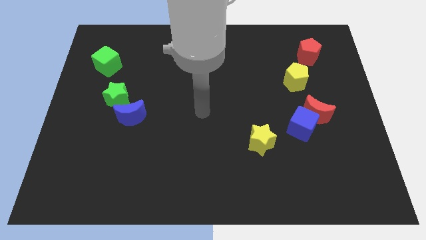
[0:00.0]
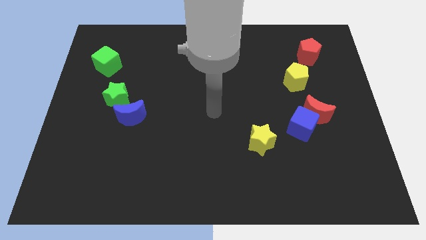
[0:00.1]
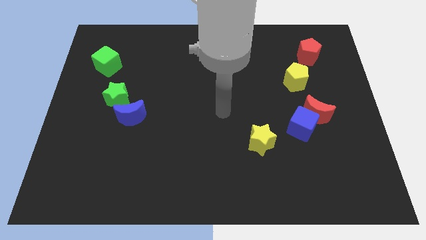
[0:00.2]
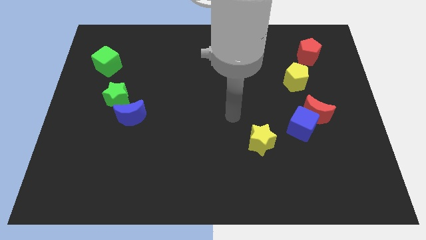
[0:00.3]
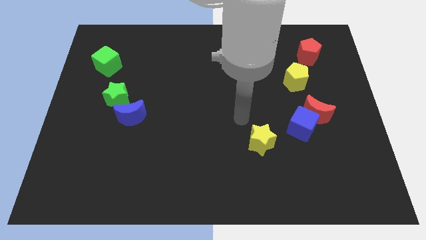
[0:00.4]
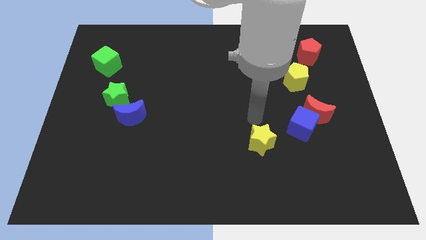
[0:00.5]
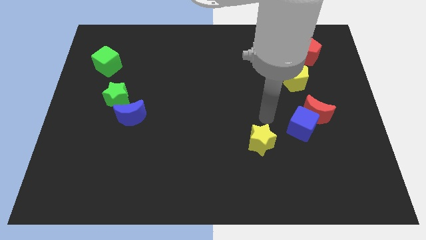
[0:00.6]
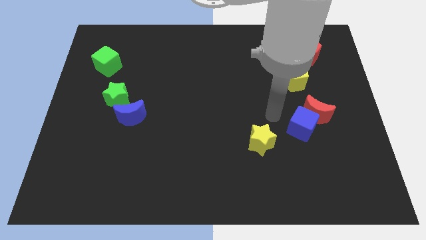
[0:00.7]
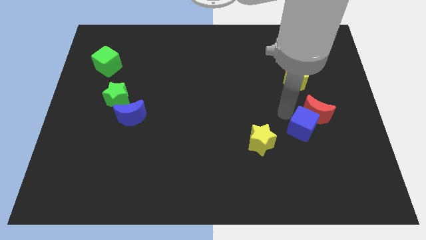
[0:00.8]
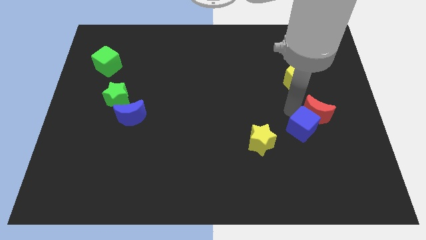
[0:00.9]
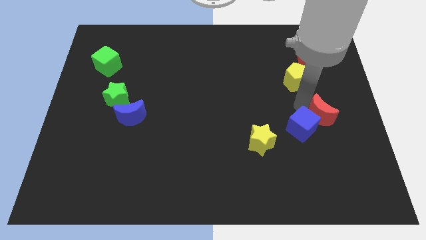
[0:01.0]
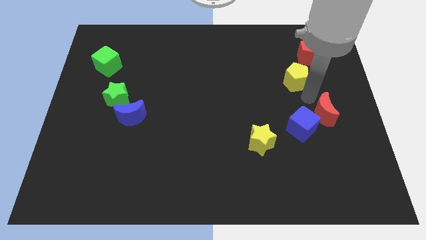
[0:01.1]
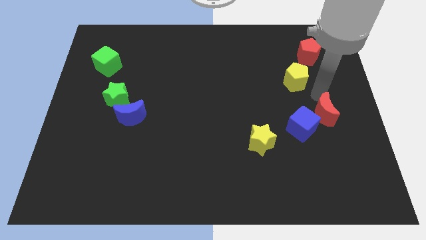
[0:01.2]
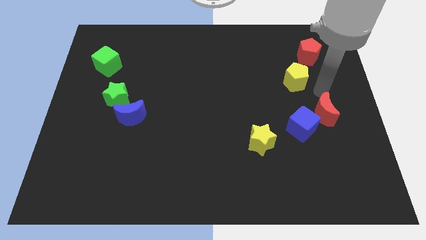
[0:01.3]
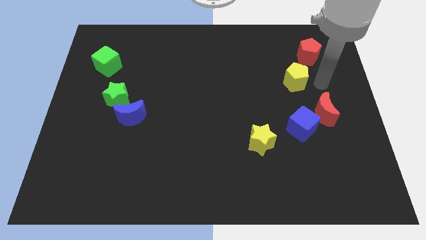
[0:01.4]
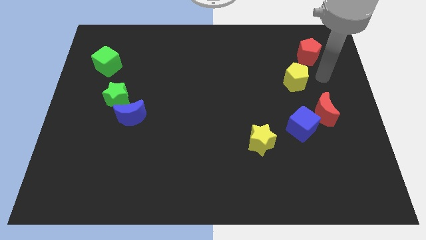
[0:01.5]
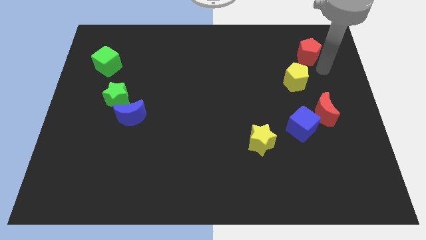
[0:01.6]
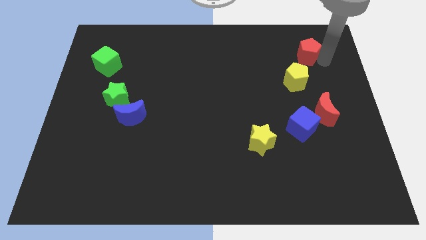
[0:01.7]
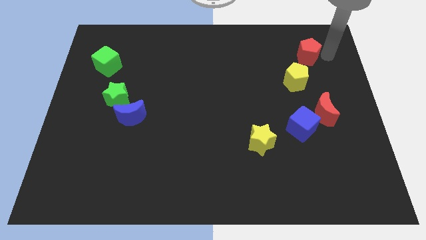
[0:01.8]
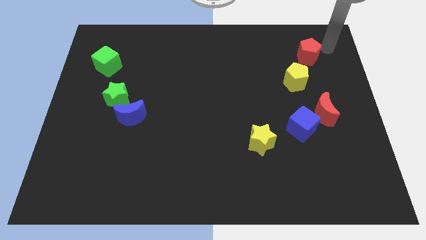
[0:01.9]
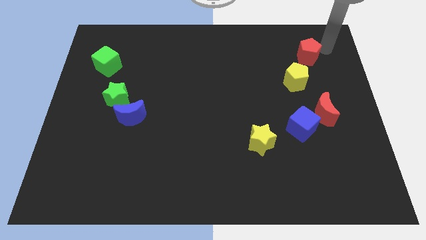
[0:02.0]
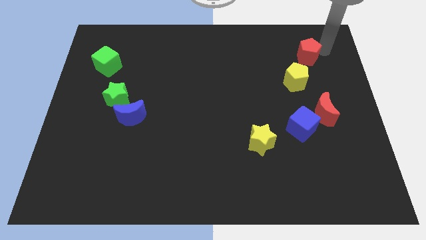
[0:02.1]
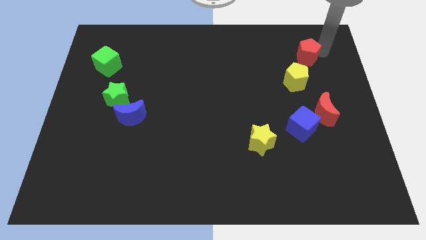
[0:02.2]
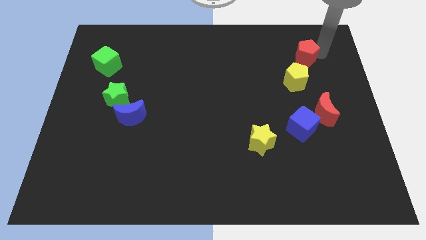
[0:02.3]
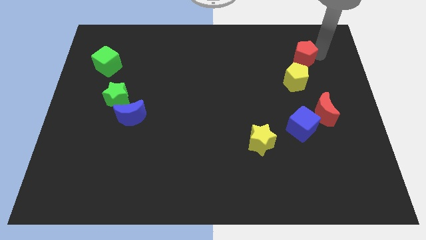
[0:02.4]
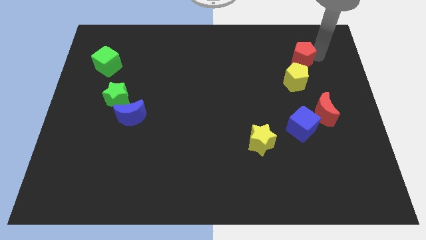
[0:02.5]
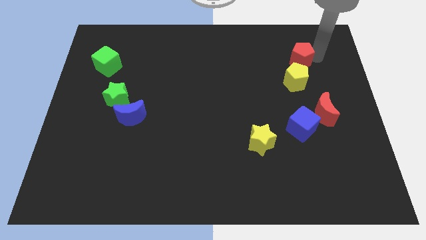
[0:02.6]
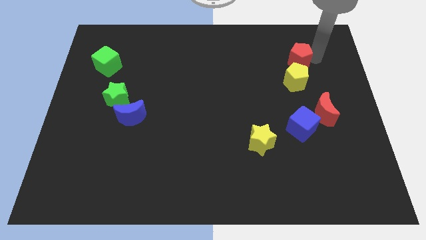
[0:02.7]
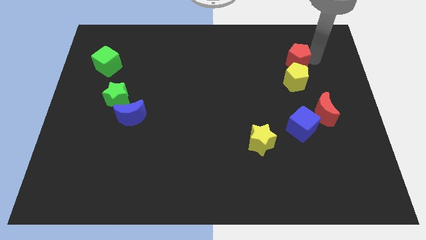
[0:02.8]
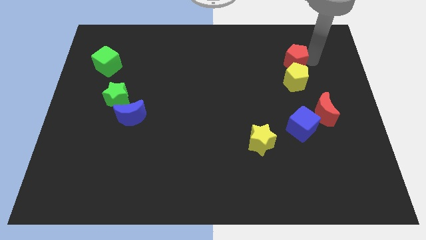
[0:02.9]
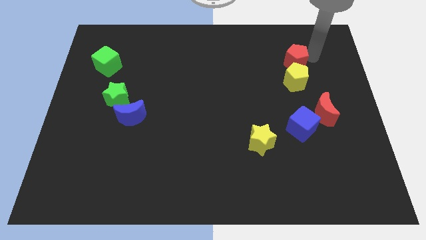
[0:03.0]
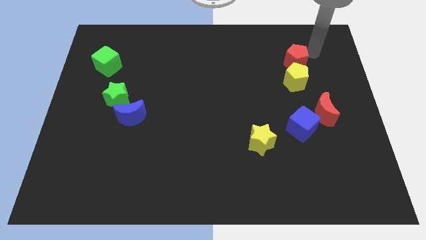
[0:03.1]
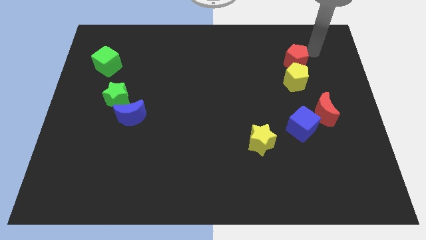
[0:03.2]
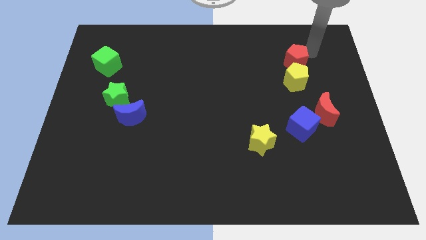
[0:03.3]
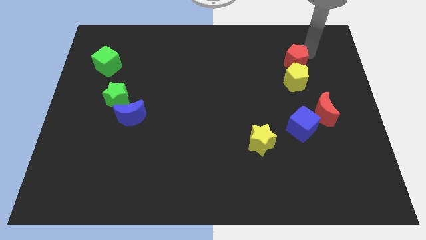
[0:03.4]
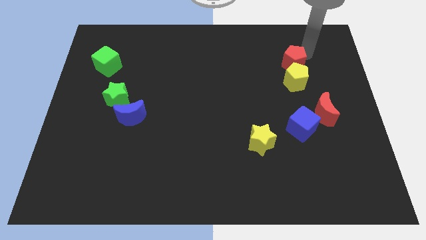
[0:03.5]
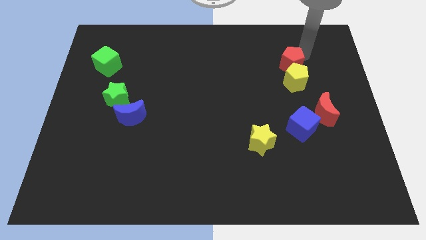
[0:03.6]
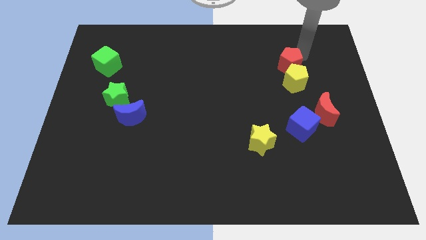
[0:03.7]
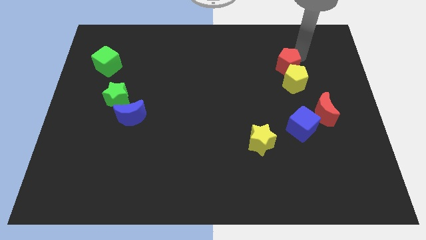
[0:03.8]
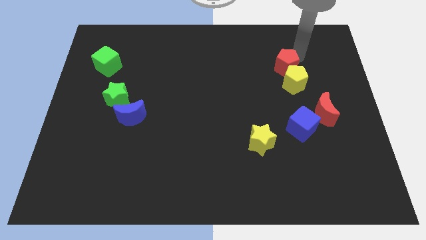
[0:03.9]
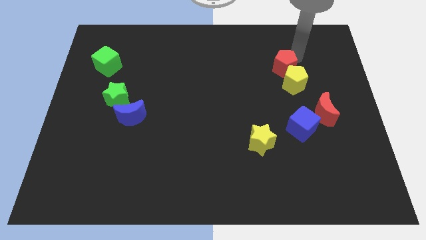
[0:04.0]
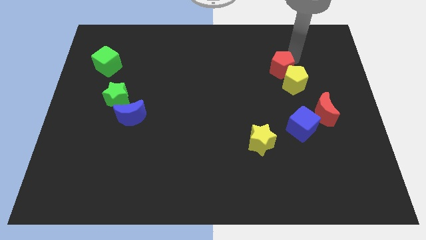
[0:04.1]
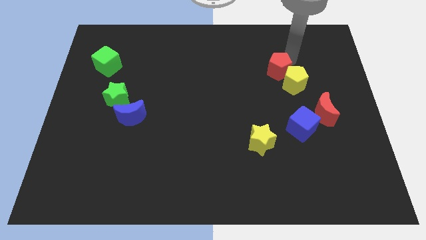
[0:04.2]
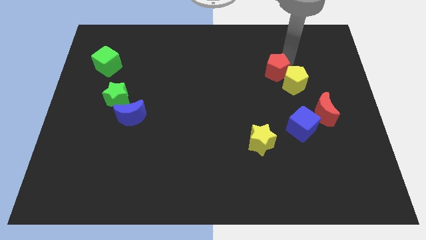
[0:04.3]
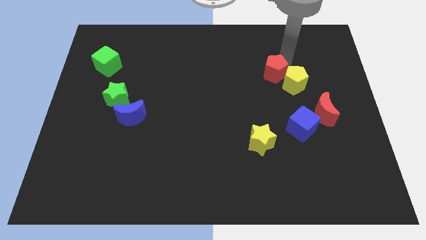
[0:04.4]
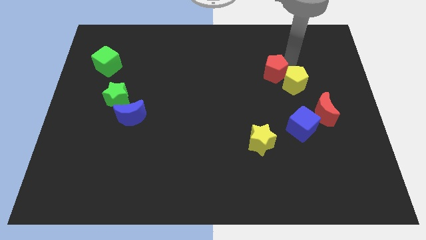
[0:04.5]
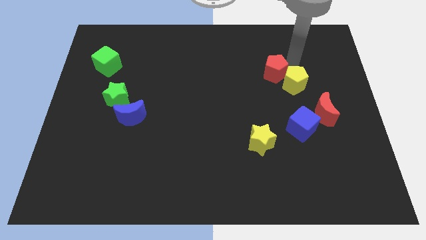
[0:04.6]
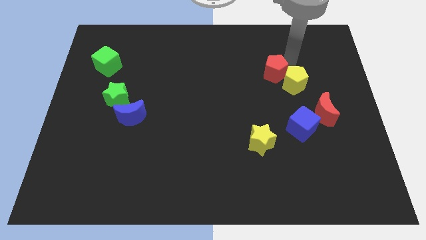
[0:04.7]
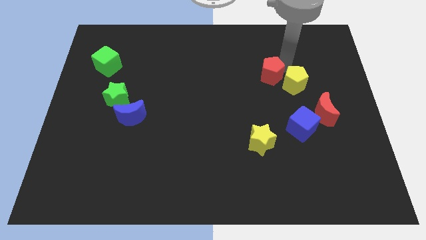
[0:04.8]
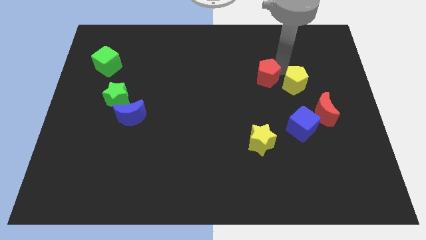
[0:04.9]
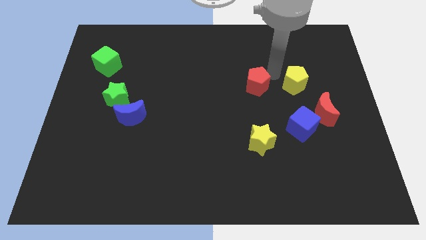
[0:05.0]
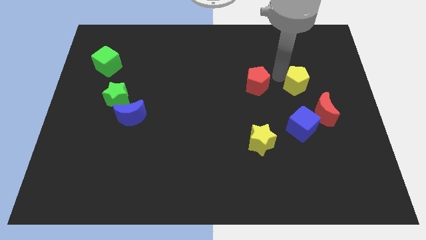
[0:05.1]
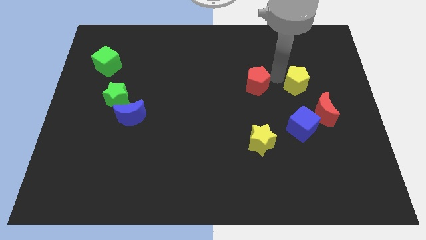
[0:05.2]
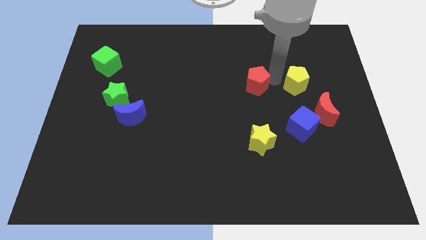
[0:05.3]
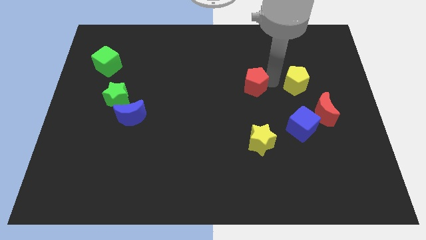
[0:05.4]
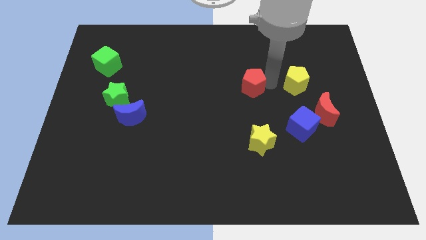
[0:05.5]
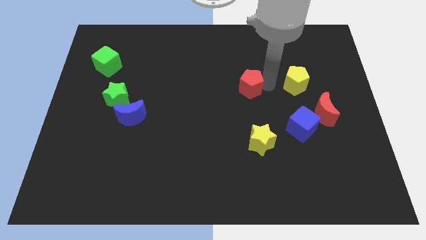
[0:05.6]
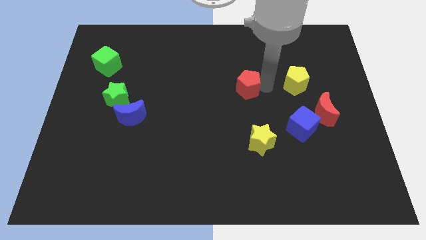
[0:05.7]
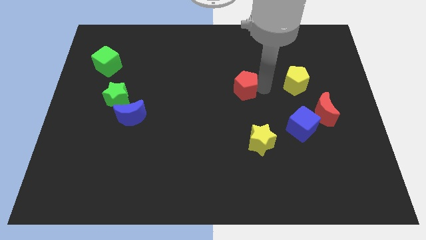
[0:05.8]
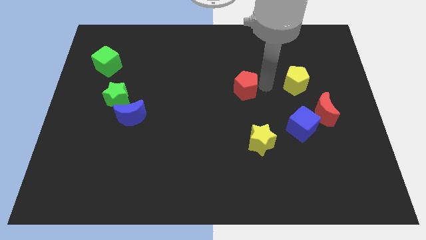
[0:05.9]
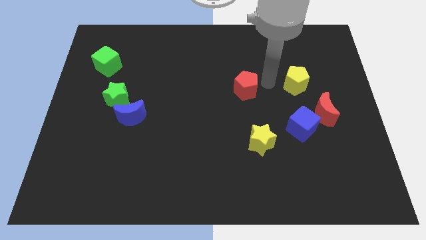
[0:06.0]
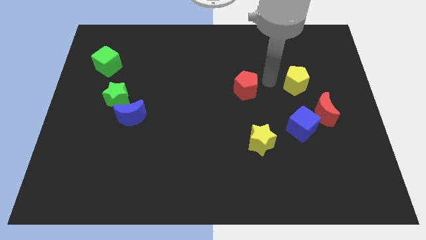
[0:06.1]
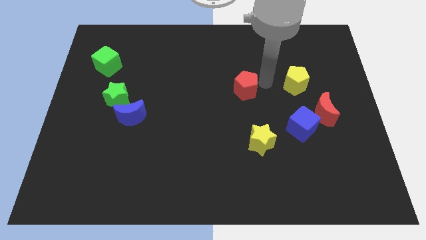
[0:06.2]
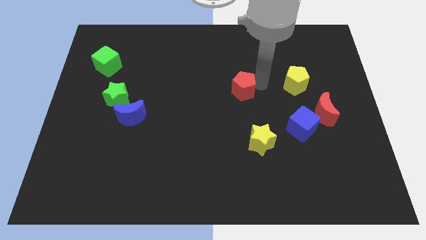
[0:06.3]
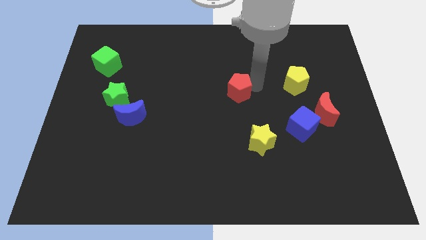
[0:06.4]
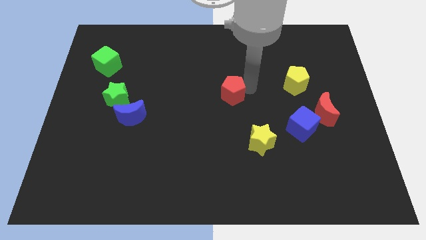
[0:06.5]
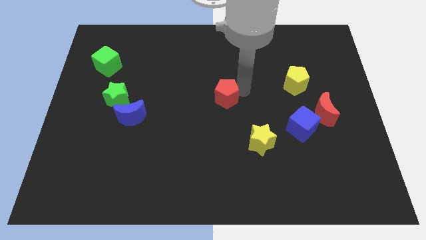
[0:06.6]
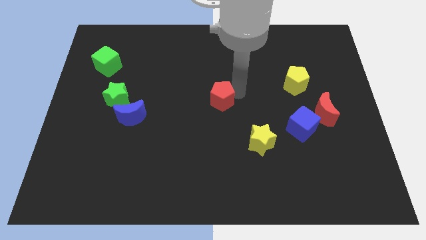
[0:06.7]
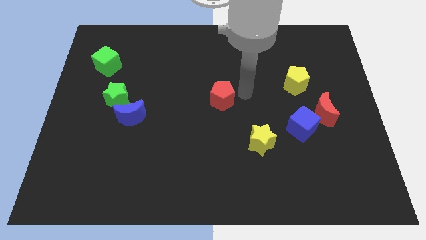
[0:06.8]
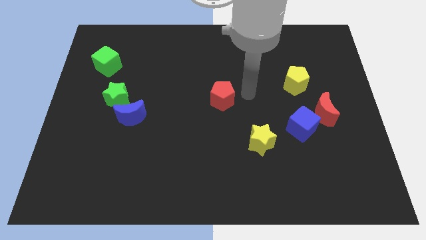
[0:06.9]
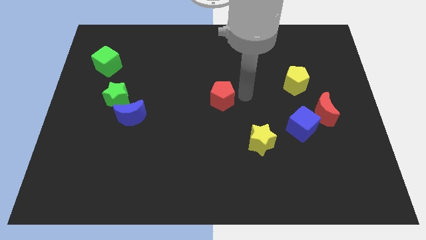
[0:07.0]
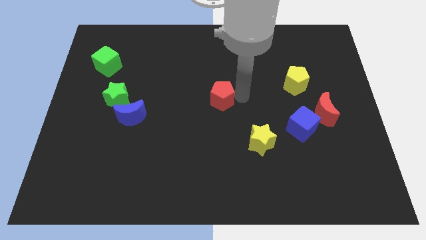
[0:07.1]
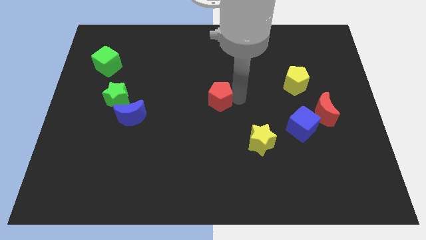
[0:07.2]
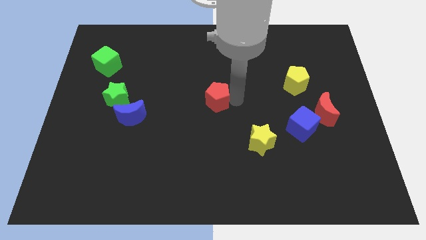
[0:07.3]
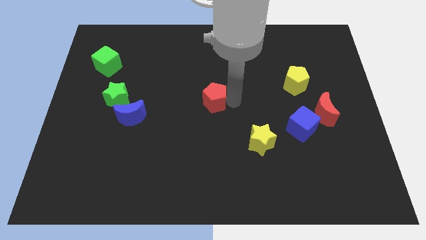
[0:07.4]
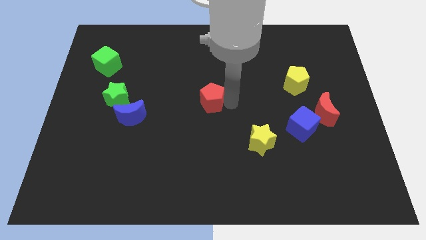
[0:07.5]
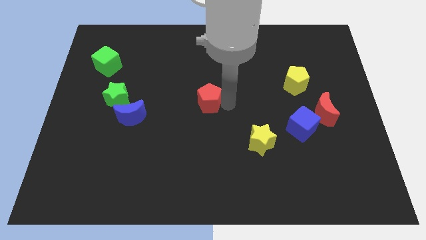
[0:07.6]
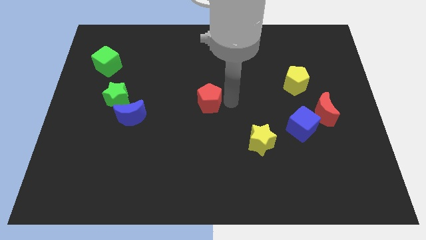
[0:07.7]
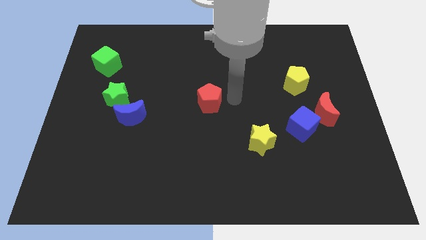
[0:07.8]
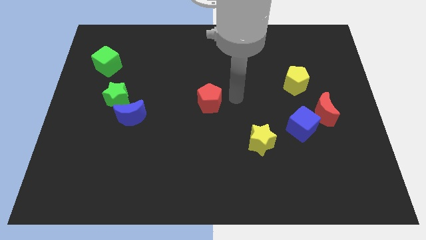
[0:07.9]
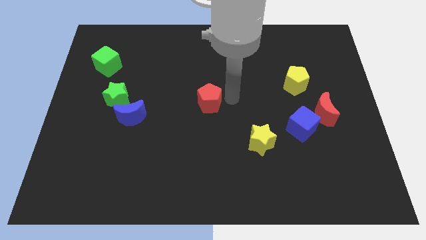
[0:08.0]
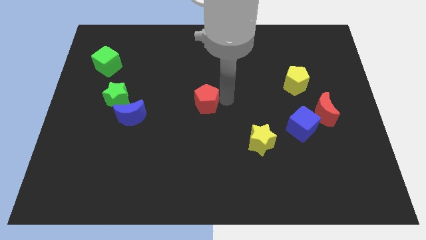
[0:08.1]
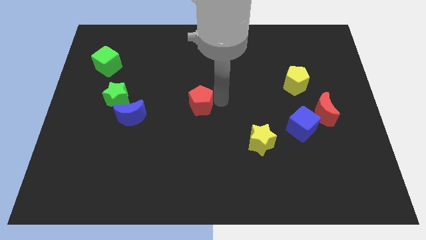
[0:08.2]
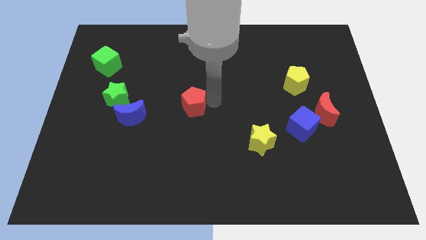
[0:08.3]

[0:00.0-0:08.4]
move the red pentagon right of the blue moon
